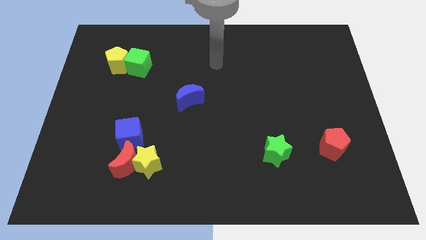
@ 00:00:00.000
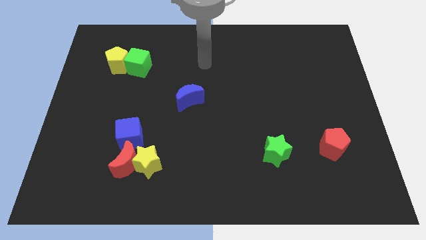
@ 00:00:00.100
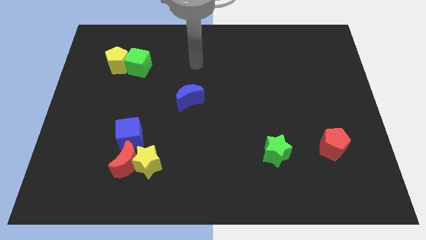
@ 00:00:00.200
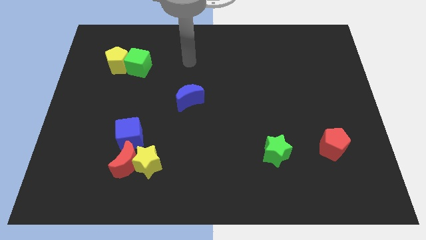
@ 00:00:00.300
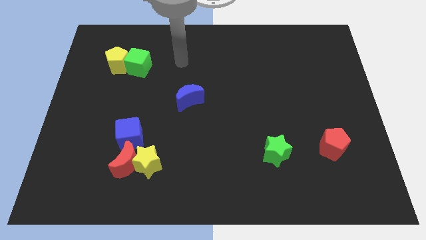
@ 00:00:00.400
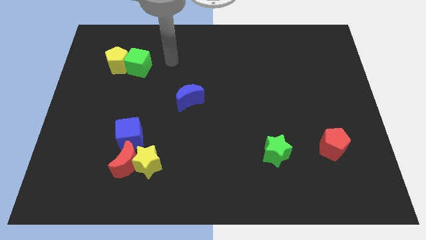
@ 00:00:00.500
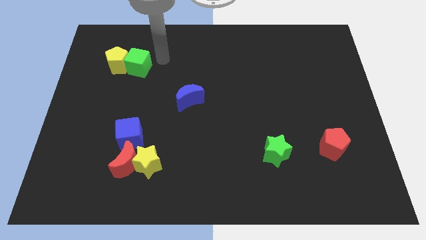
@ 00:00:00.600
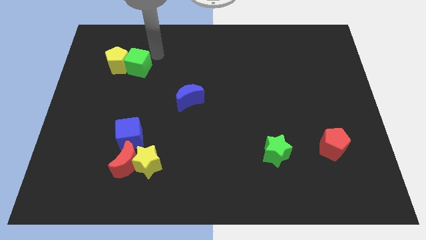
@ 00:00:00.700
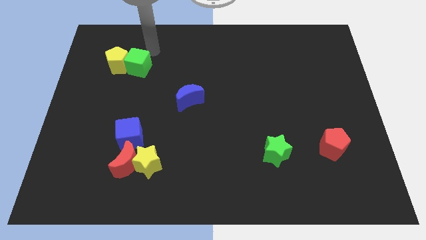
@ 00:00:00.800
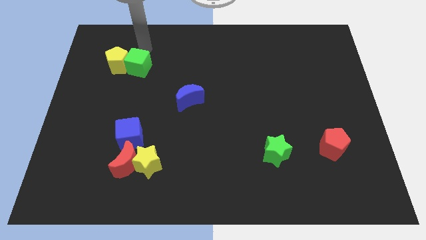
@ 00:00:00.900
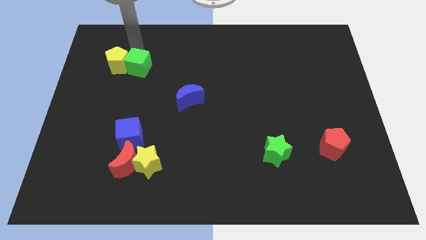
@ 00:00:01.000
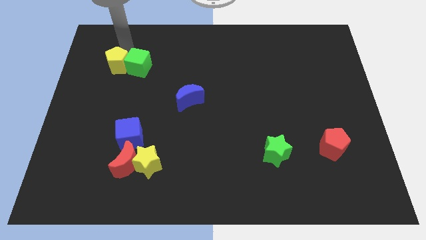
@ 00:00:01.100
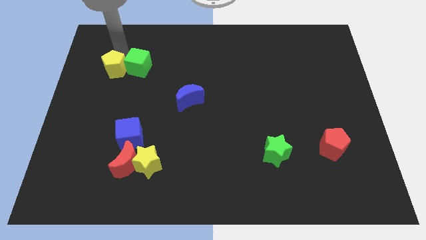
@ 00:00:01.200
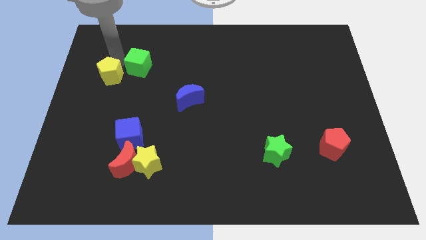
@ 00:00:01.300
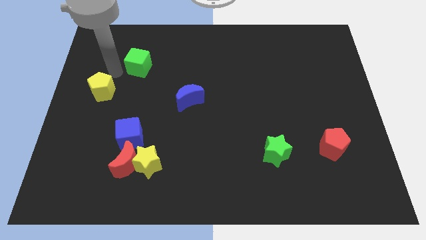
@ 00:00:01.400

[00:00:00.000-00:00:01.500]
pull the green cube apart from the yellow pentagon

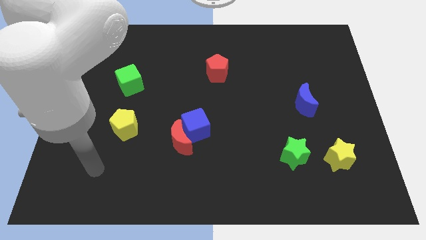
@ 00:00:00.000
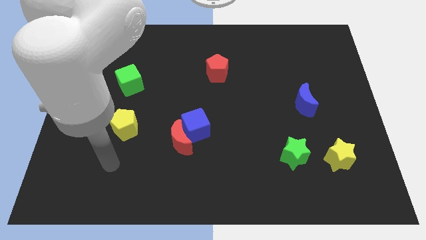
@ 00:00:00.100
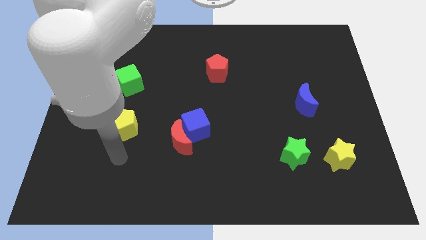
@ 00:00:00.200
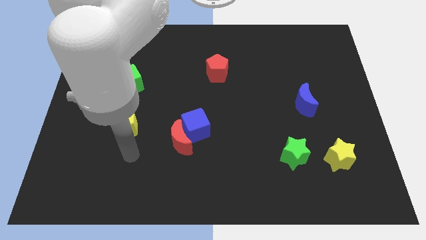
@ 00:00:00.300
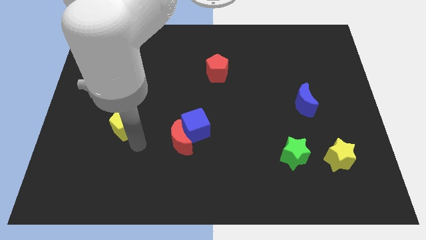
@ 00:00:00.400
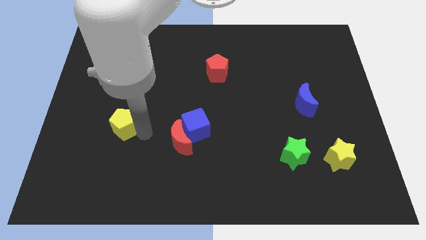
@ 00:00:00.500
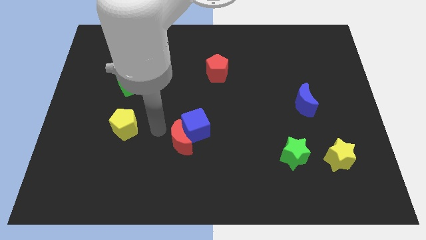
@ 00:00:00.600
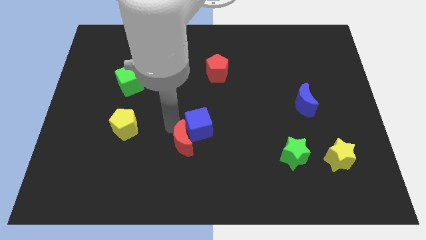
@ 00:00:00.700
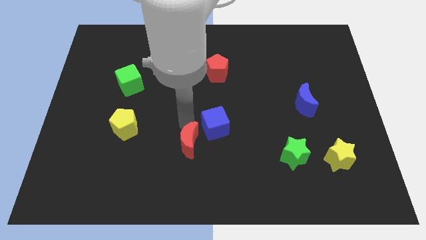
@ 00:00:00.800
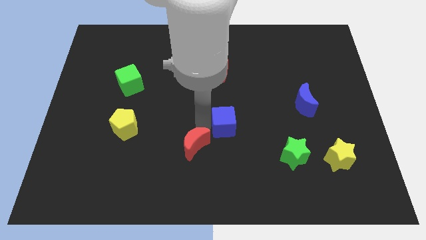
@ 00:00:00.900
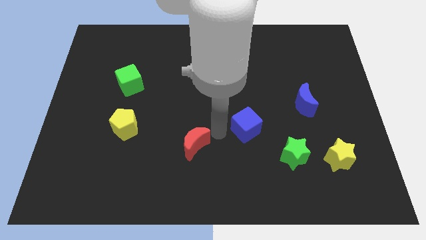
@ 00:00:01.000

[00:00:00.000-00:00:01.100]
separate the red moon from the blue cube

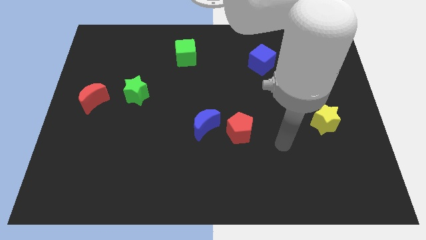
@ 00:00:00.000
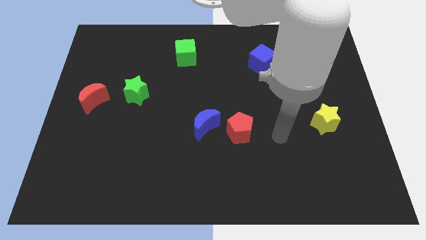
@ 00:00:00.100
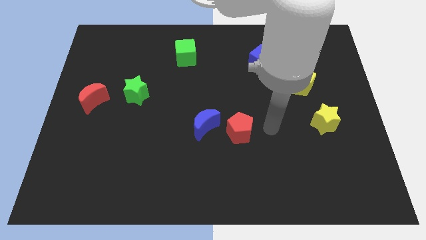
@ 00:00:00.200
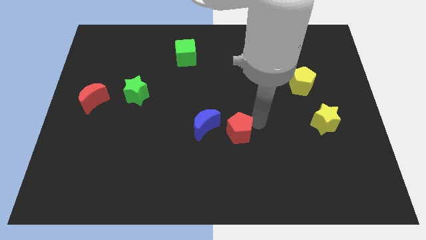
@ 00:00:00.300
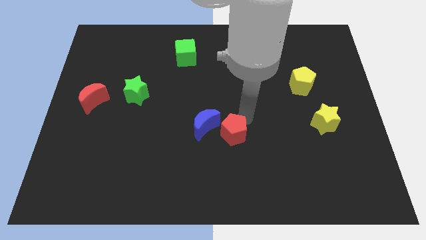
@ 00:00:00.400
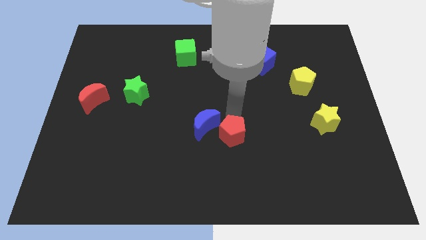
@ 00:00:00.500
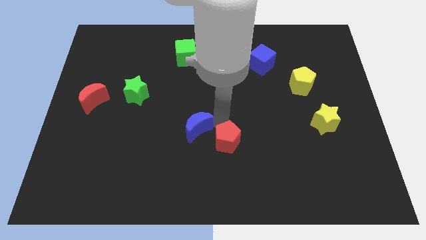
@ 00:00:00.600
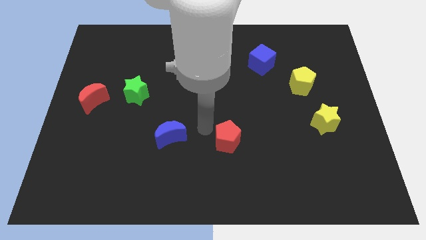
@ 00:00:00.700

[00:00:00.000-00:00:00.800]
separate the red pentagon from the blue moon

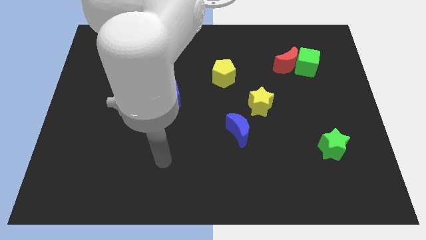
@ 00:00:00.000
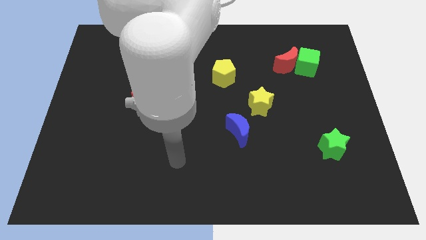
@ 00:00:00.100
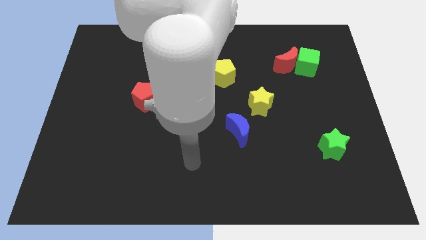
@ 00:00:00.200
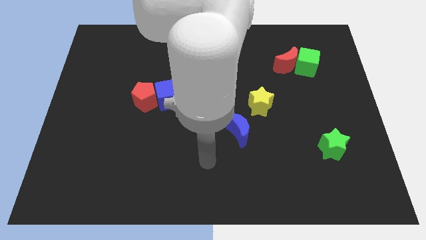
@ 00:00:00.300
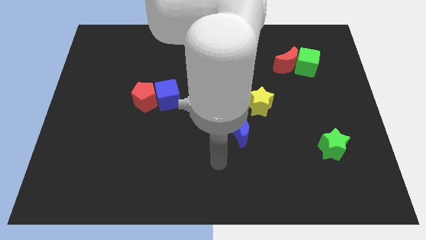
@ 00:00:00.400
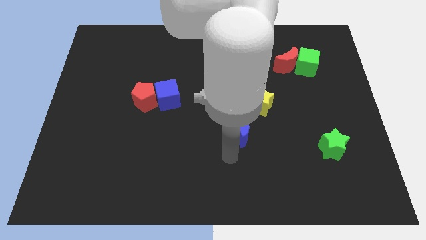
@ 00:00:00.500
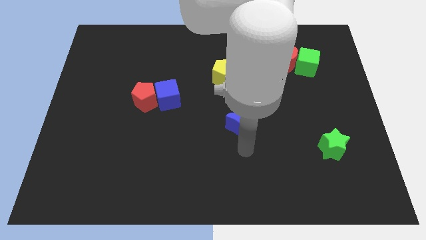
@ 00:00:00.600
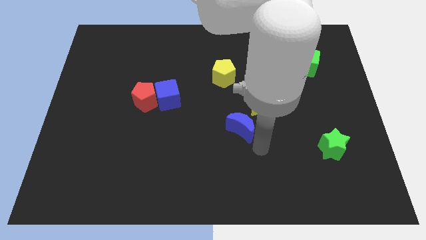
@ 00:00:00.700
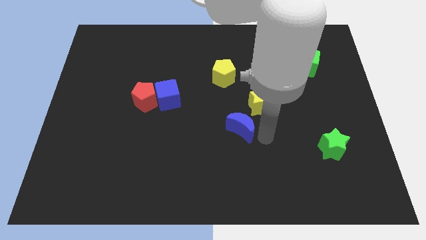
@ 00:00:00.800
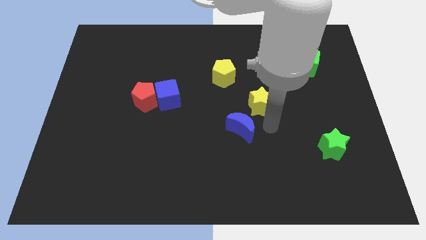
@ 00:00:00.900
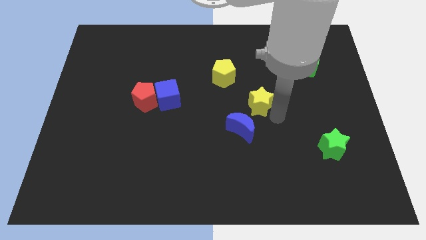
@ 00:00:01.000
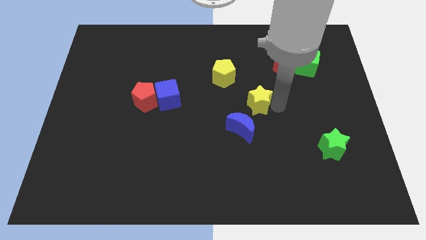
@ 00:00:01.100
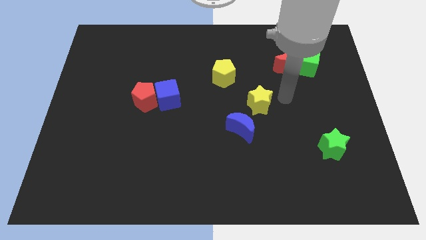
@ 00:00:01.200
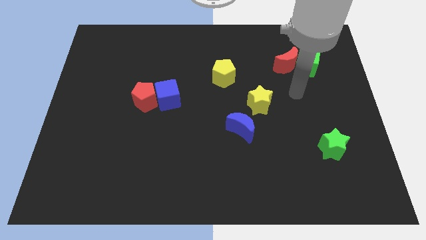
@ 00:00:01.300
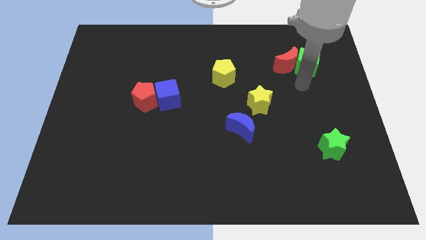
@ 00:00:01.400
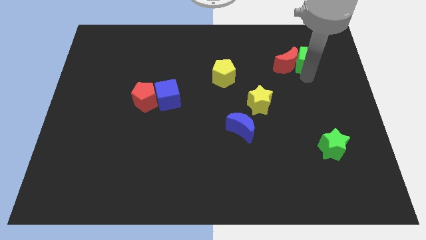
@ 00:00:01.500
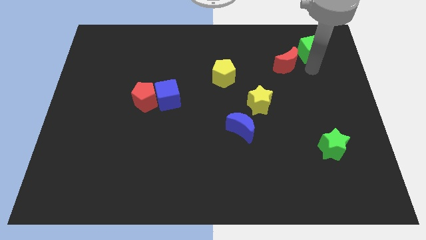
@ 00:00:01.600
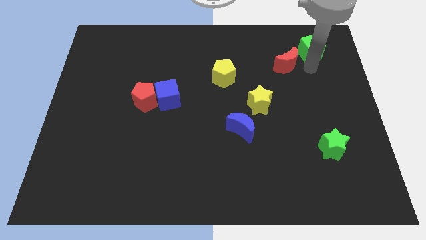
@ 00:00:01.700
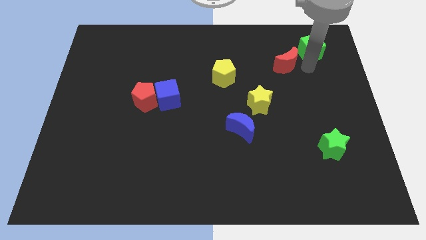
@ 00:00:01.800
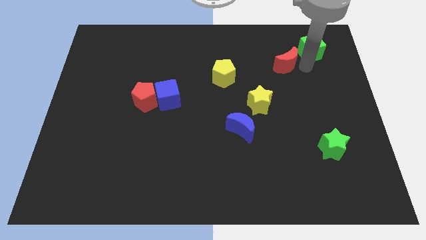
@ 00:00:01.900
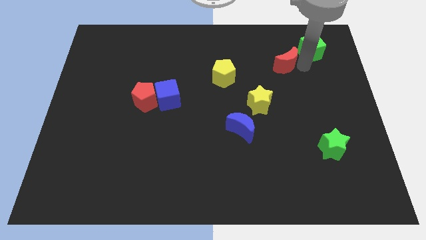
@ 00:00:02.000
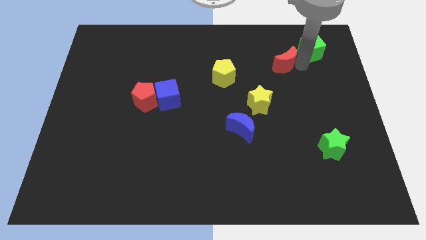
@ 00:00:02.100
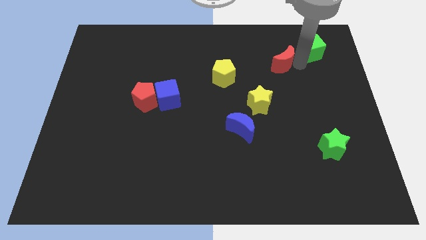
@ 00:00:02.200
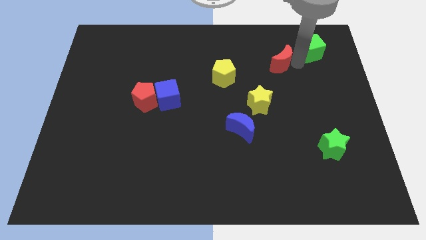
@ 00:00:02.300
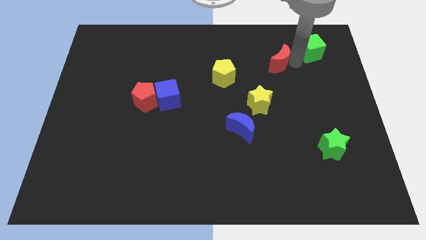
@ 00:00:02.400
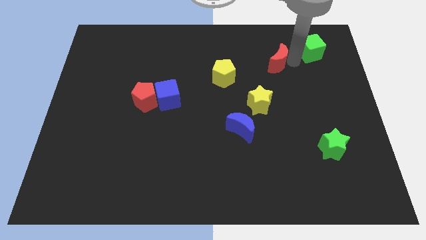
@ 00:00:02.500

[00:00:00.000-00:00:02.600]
pull the red moon apart from the green cube

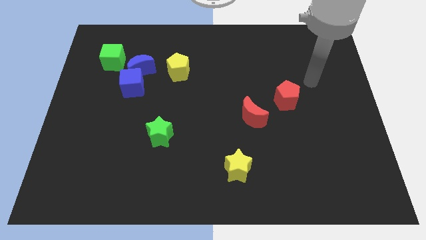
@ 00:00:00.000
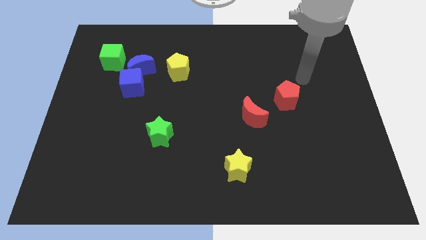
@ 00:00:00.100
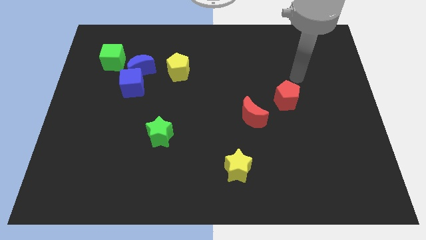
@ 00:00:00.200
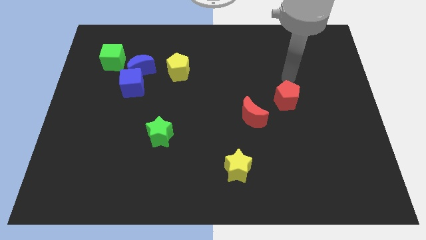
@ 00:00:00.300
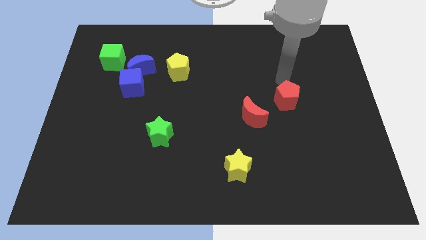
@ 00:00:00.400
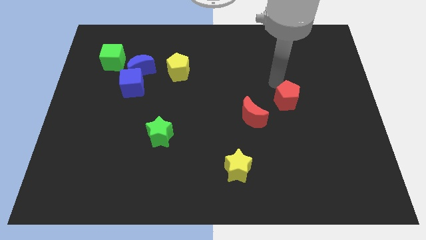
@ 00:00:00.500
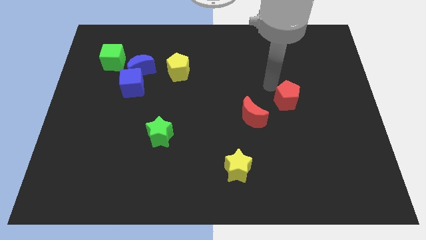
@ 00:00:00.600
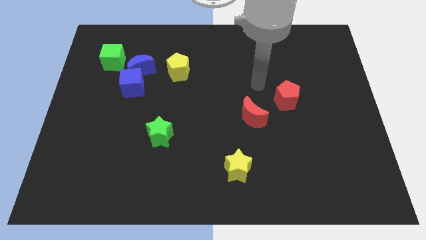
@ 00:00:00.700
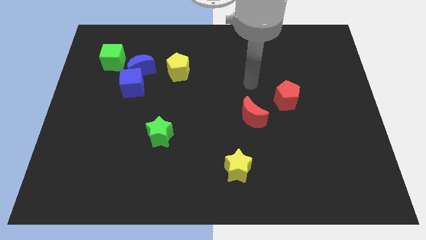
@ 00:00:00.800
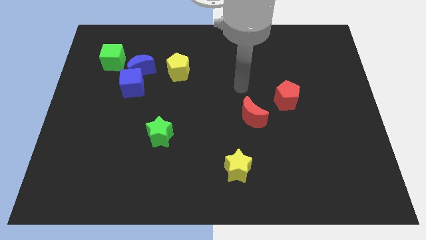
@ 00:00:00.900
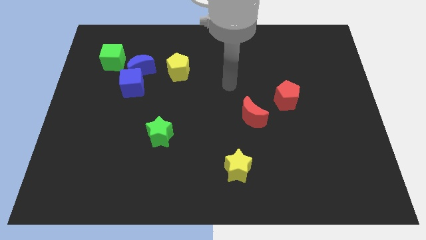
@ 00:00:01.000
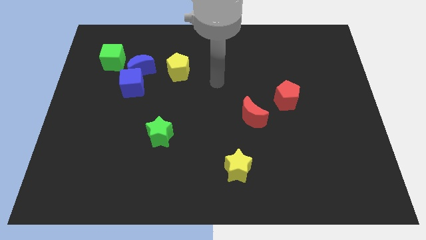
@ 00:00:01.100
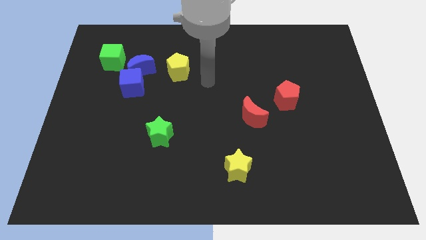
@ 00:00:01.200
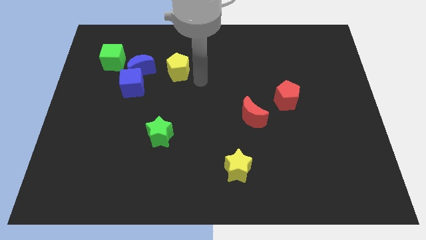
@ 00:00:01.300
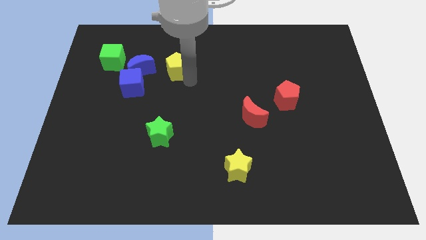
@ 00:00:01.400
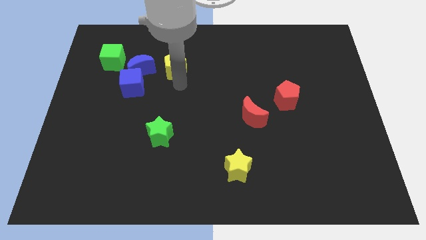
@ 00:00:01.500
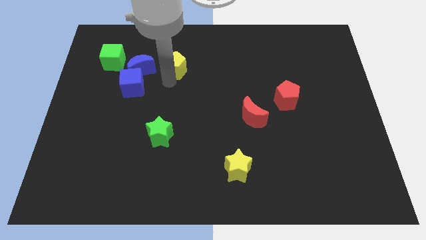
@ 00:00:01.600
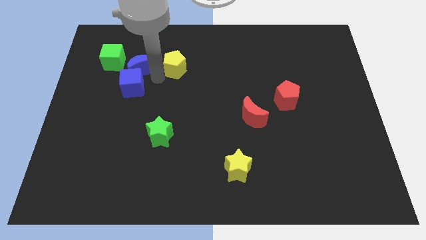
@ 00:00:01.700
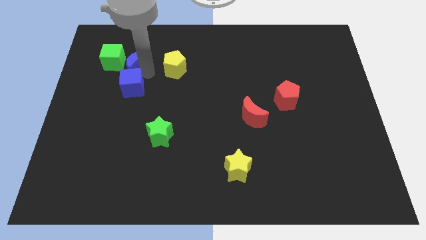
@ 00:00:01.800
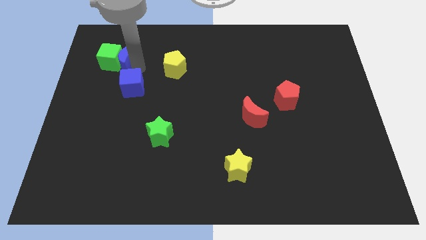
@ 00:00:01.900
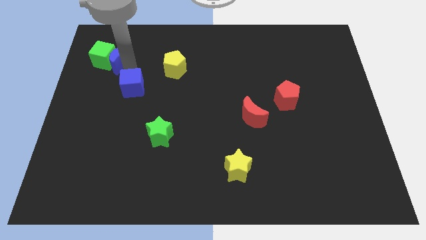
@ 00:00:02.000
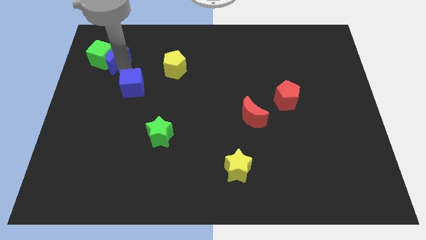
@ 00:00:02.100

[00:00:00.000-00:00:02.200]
separate the blue cube from the blue moon

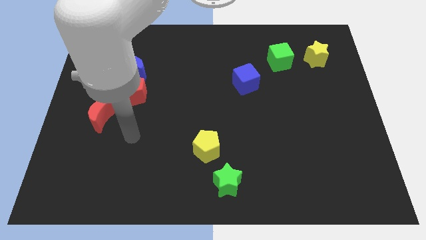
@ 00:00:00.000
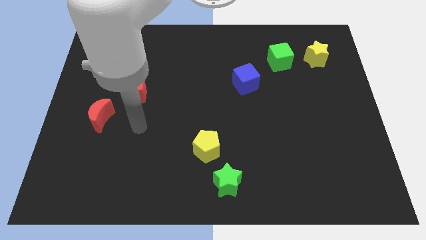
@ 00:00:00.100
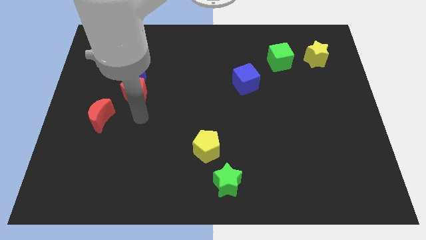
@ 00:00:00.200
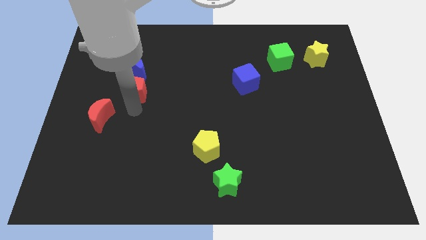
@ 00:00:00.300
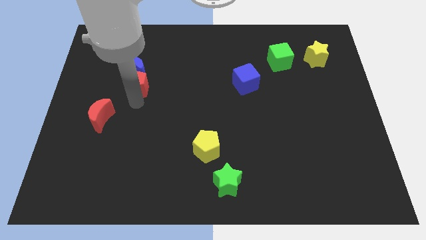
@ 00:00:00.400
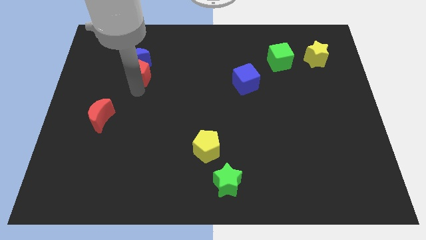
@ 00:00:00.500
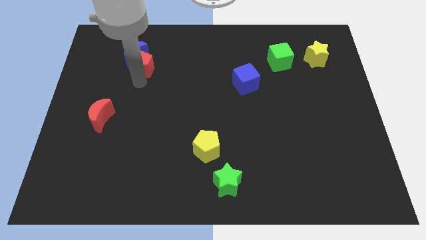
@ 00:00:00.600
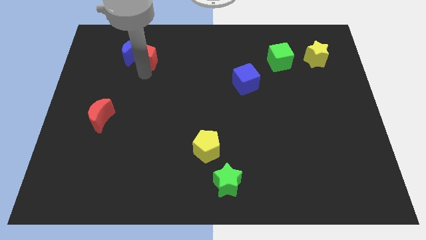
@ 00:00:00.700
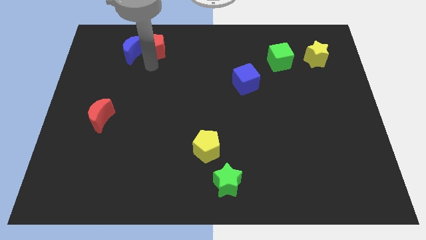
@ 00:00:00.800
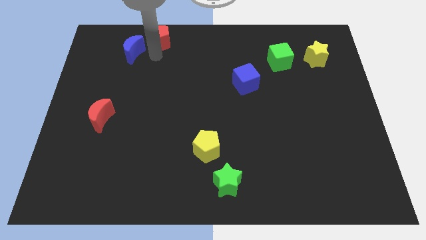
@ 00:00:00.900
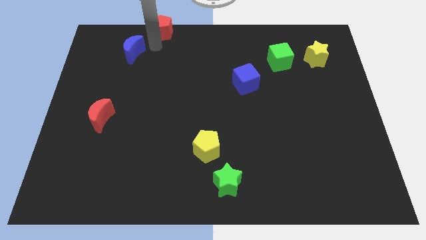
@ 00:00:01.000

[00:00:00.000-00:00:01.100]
separate the blue moon from the red pentagon
